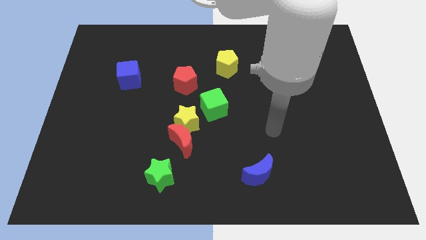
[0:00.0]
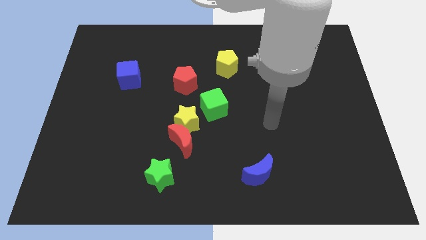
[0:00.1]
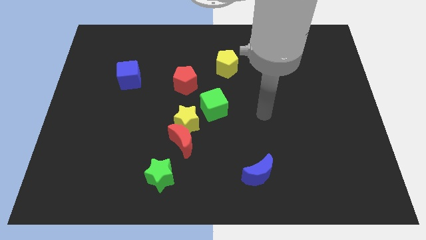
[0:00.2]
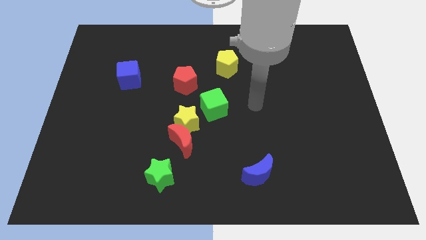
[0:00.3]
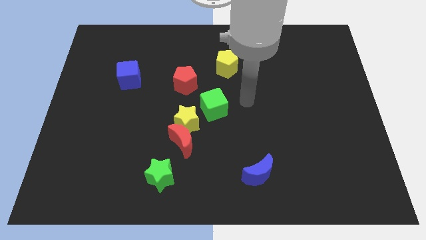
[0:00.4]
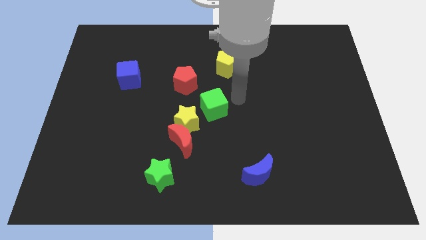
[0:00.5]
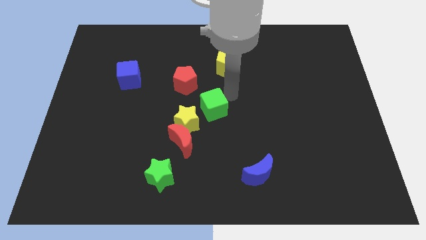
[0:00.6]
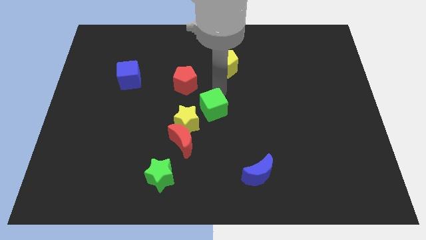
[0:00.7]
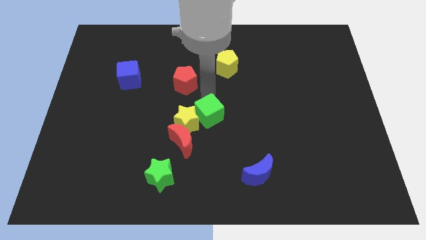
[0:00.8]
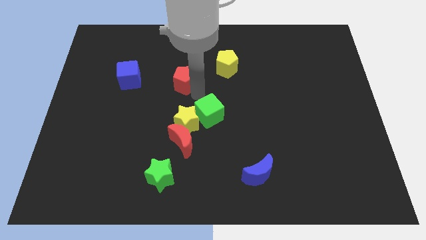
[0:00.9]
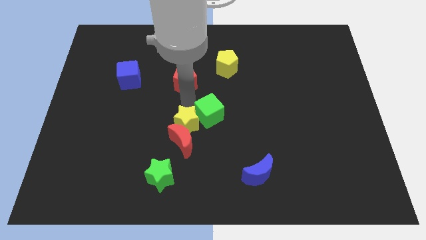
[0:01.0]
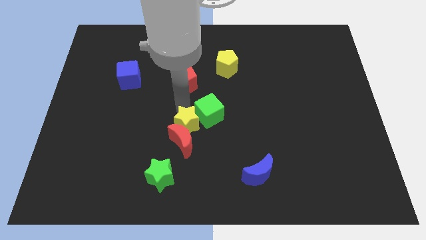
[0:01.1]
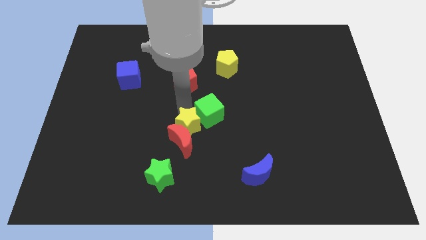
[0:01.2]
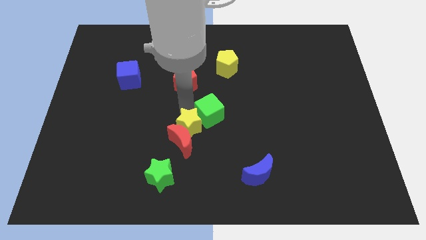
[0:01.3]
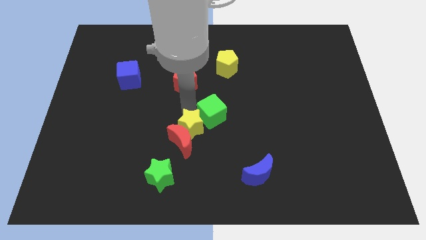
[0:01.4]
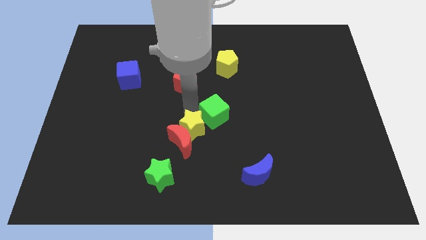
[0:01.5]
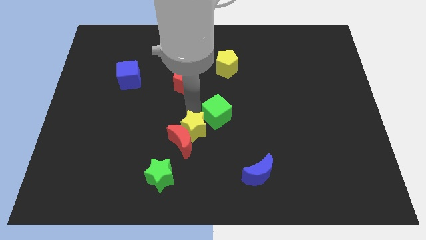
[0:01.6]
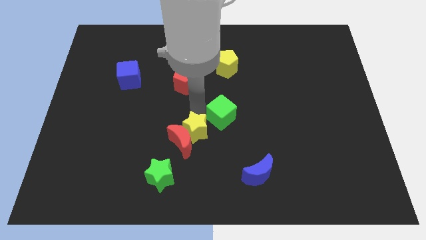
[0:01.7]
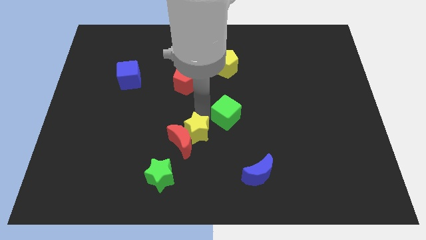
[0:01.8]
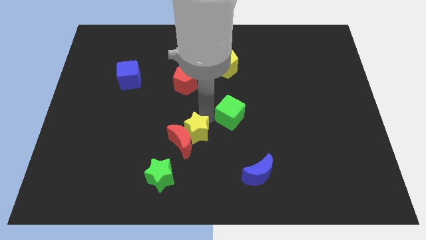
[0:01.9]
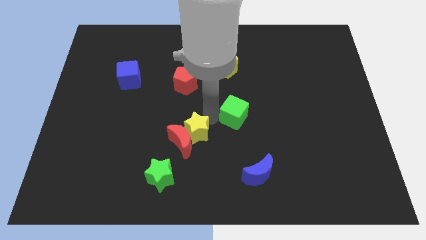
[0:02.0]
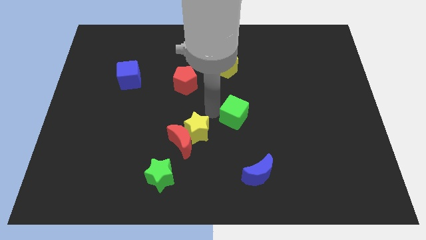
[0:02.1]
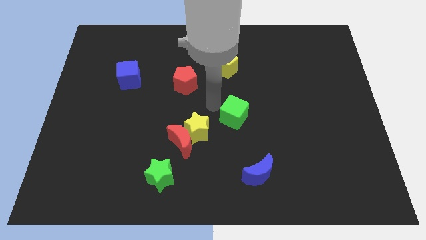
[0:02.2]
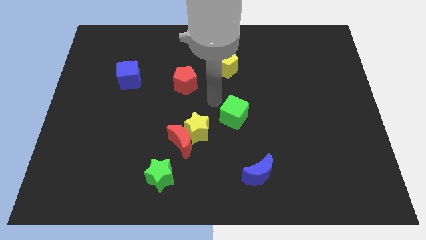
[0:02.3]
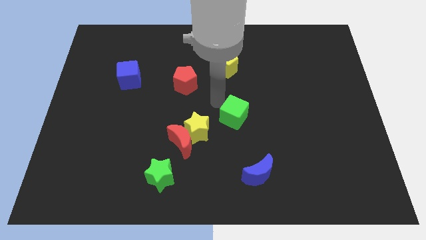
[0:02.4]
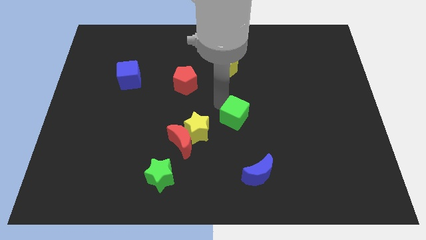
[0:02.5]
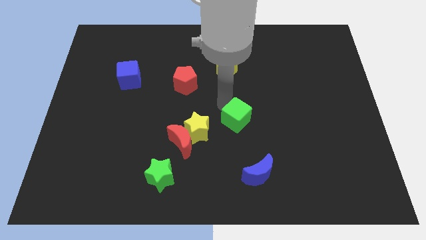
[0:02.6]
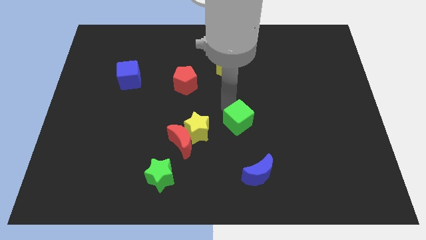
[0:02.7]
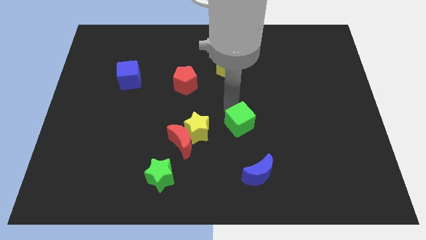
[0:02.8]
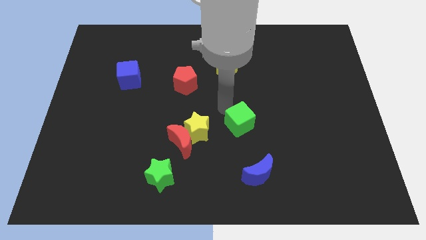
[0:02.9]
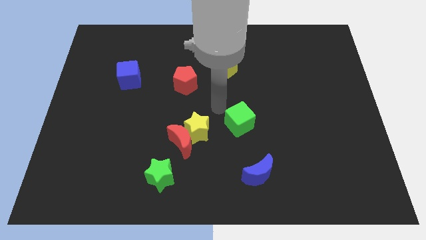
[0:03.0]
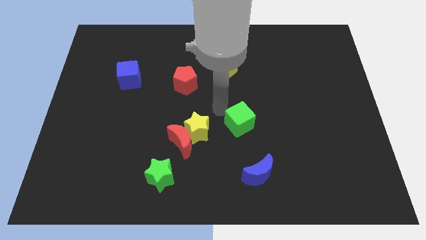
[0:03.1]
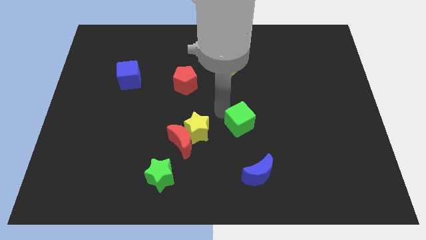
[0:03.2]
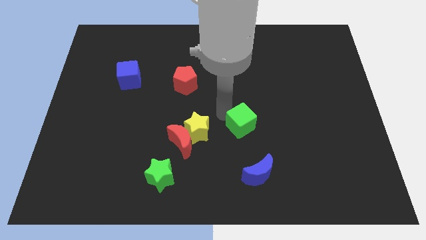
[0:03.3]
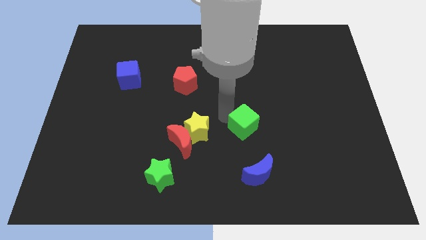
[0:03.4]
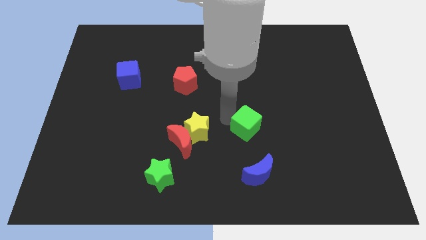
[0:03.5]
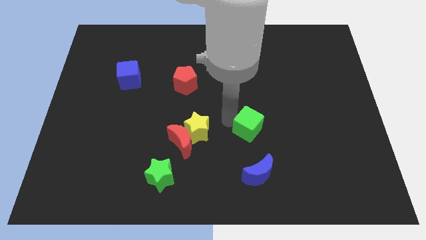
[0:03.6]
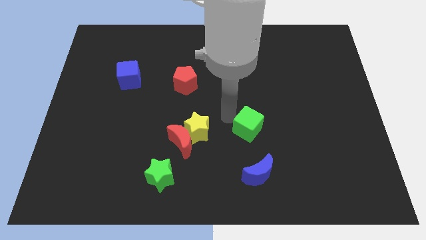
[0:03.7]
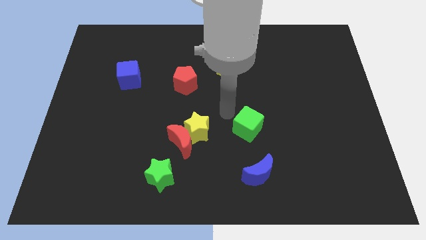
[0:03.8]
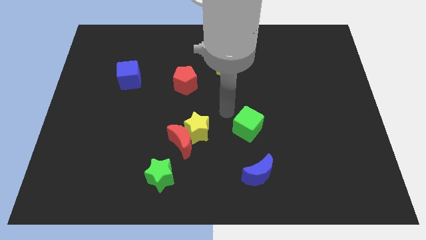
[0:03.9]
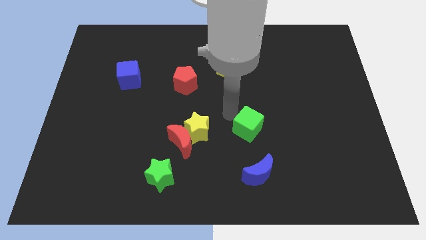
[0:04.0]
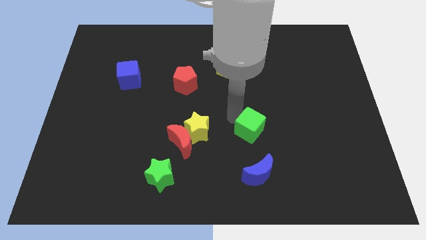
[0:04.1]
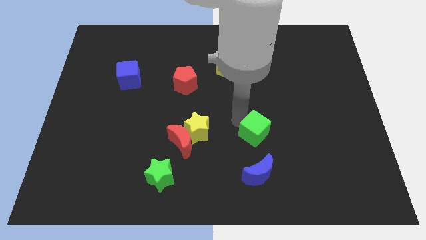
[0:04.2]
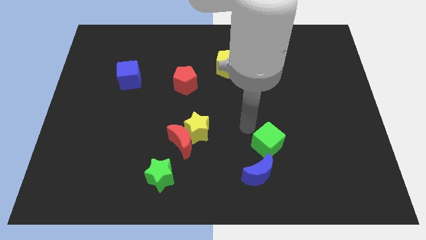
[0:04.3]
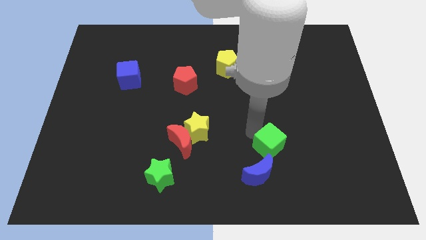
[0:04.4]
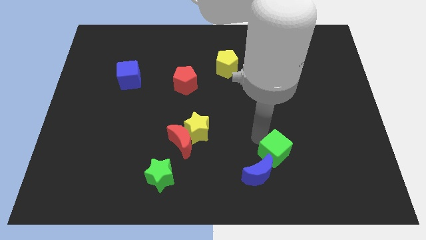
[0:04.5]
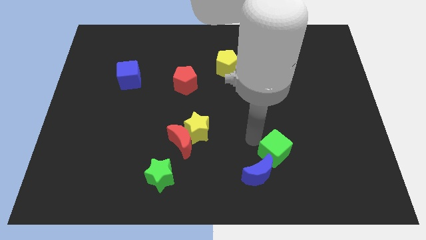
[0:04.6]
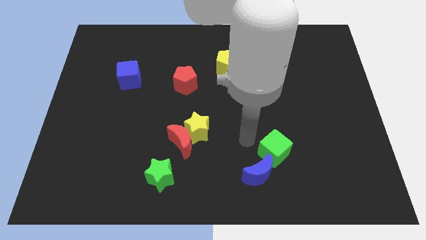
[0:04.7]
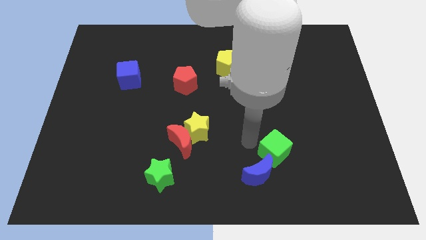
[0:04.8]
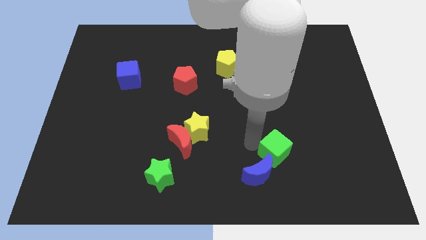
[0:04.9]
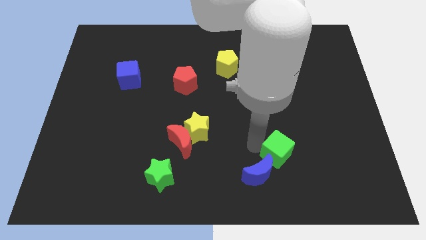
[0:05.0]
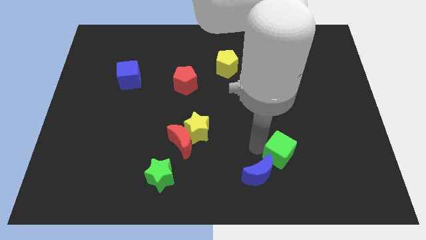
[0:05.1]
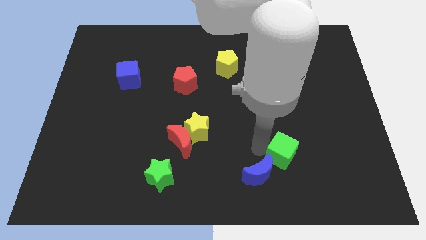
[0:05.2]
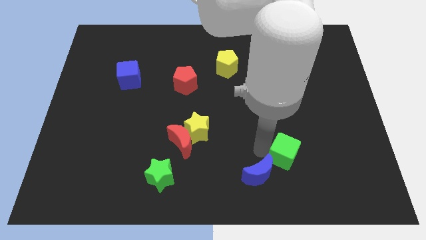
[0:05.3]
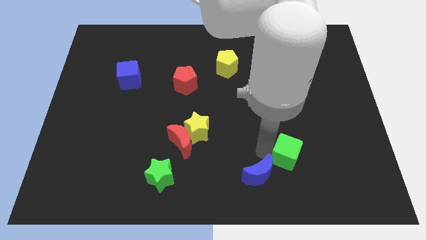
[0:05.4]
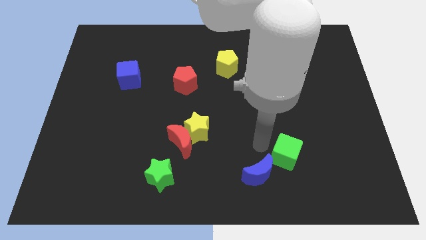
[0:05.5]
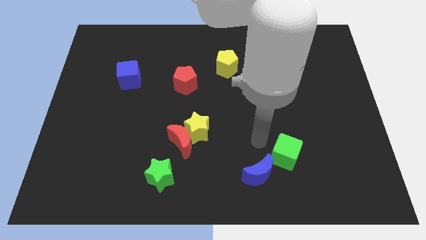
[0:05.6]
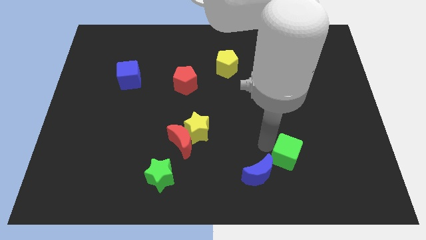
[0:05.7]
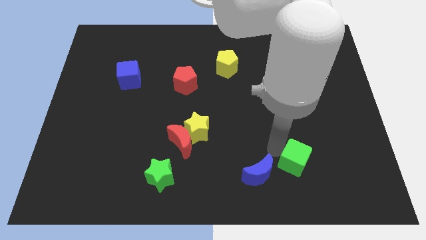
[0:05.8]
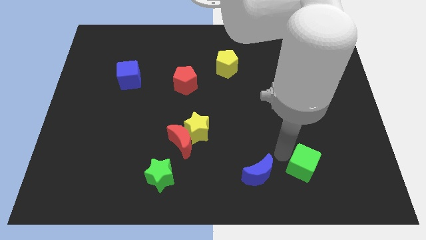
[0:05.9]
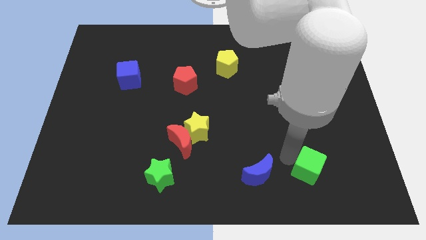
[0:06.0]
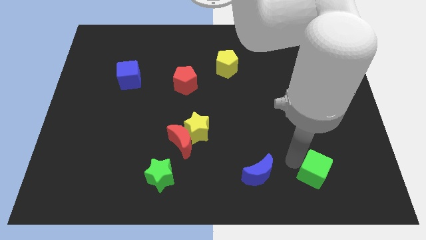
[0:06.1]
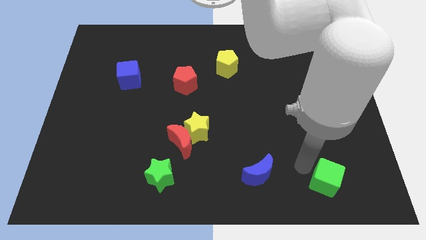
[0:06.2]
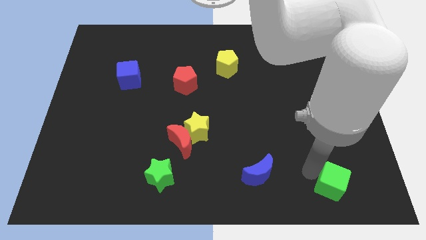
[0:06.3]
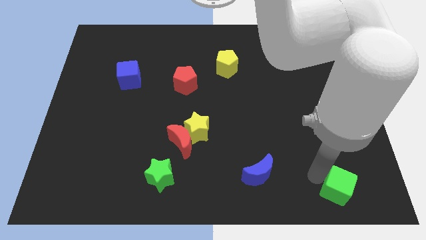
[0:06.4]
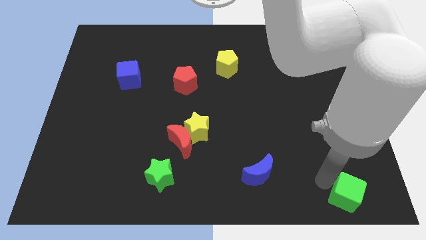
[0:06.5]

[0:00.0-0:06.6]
slide the green cube to the bottom right corner

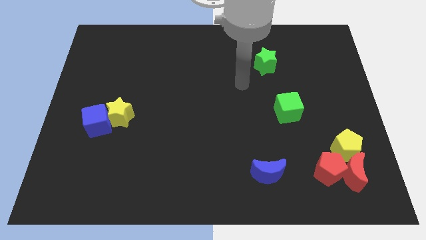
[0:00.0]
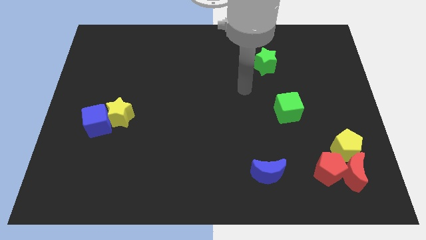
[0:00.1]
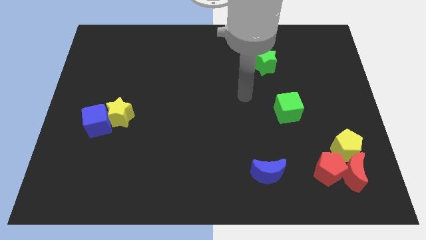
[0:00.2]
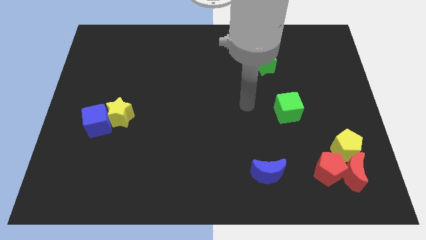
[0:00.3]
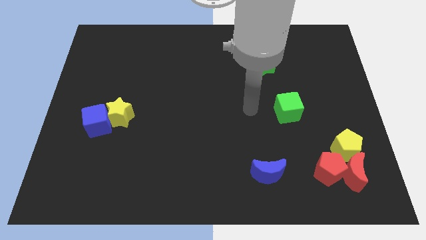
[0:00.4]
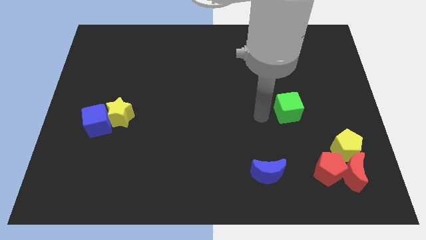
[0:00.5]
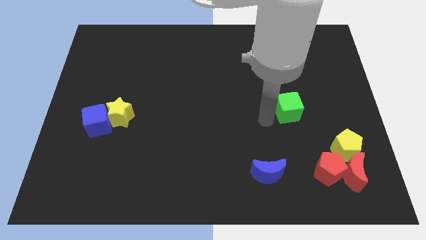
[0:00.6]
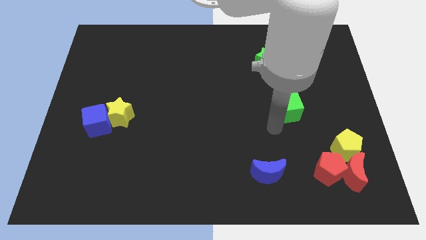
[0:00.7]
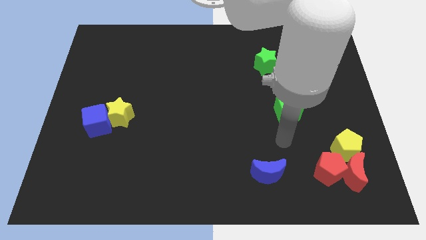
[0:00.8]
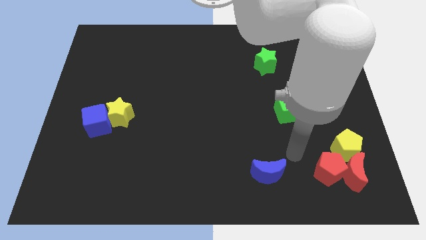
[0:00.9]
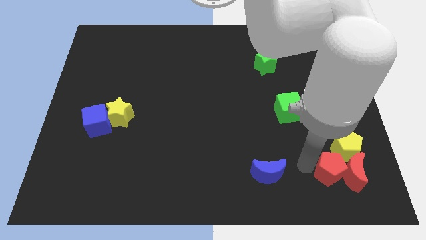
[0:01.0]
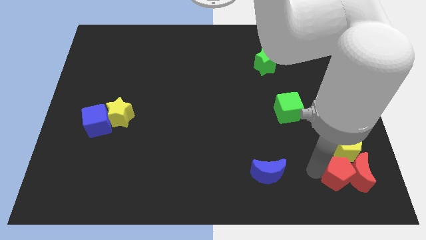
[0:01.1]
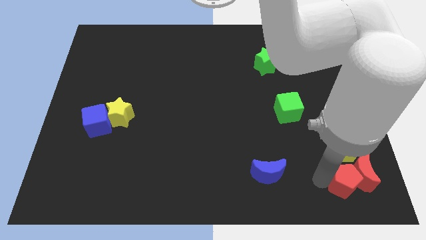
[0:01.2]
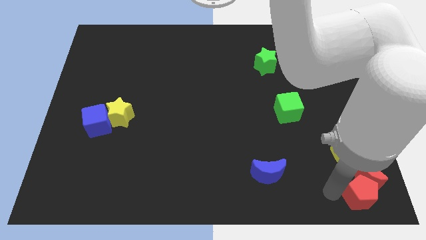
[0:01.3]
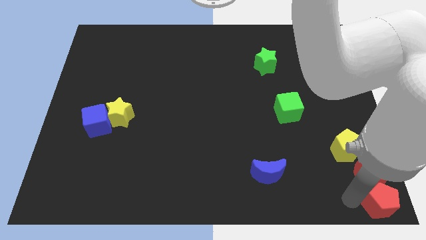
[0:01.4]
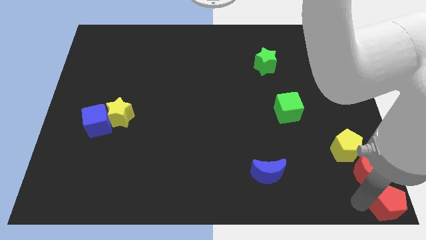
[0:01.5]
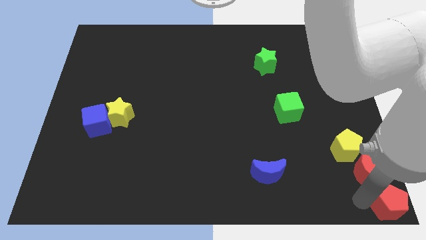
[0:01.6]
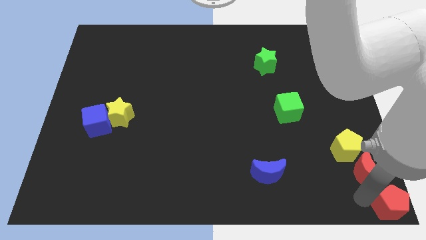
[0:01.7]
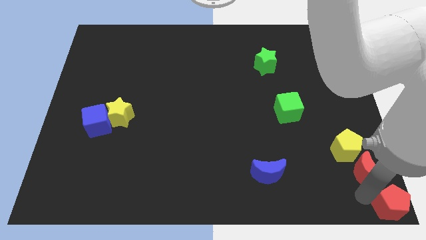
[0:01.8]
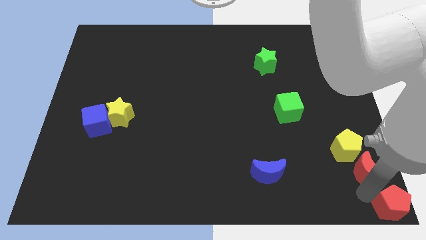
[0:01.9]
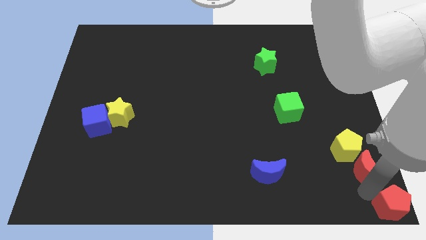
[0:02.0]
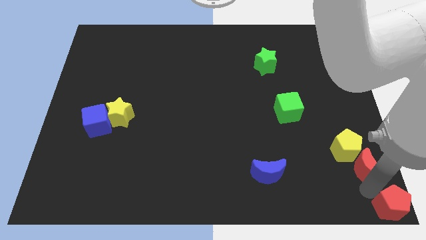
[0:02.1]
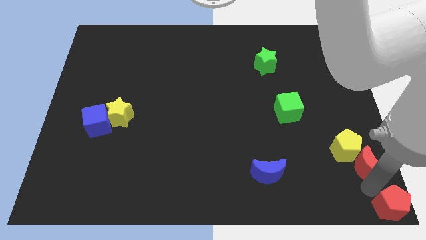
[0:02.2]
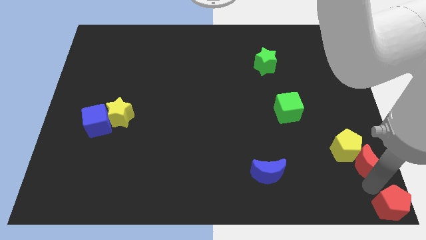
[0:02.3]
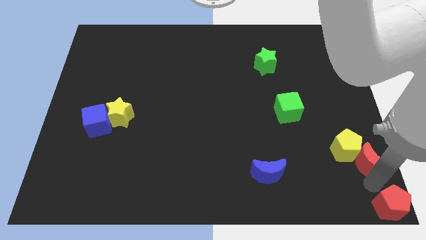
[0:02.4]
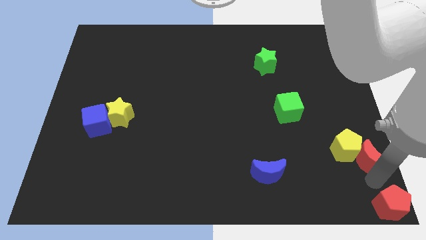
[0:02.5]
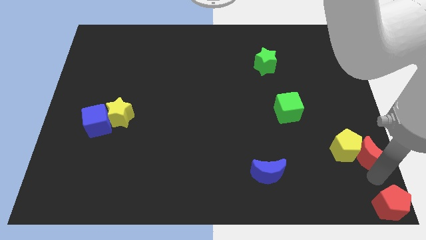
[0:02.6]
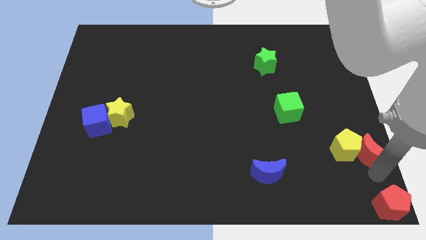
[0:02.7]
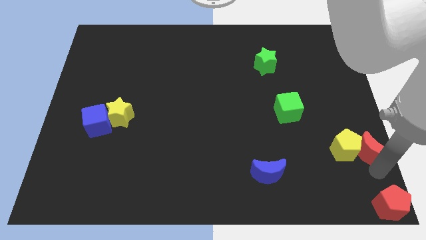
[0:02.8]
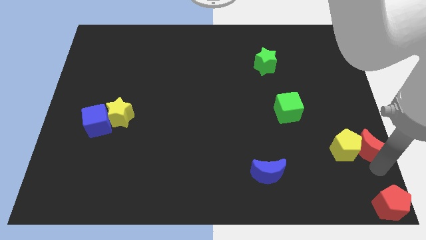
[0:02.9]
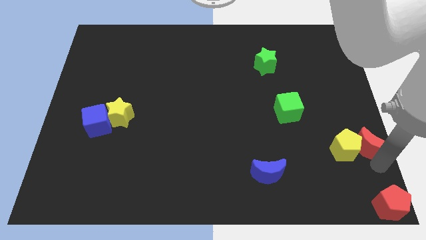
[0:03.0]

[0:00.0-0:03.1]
put the red moon to the right side
